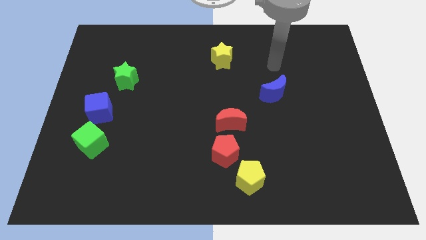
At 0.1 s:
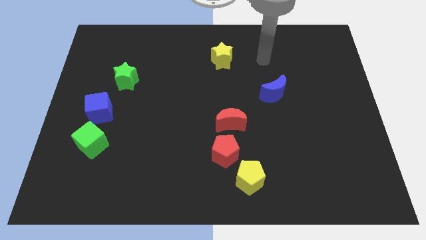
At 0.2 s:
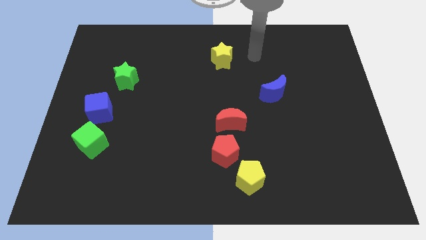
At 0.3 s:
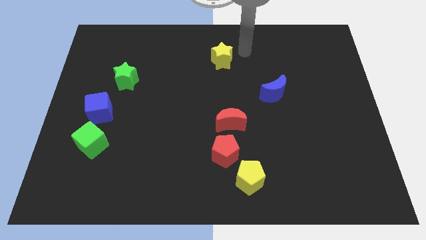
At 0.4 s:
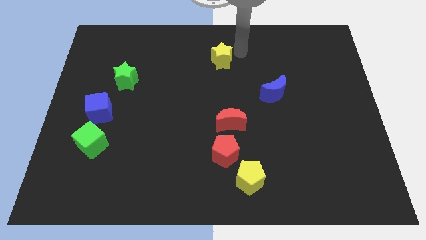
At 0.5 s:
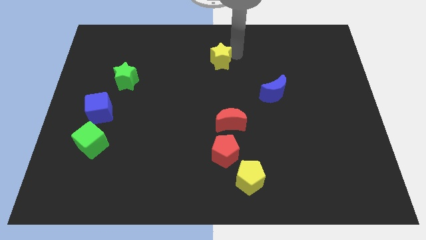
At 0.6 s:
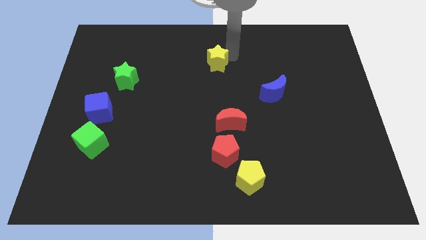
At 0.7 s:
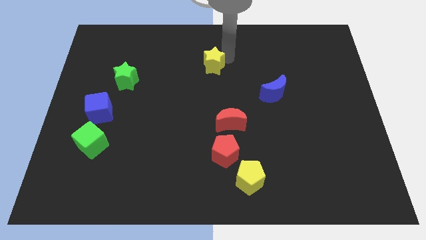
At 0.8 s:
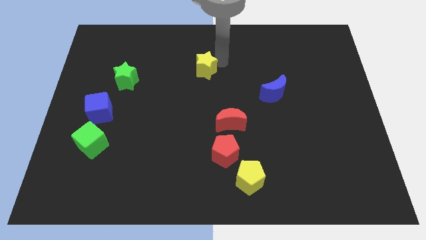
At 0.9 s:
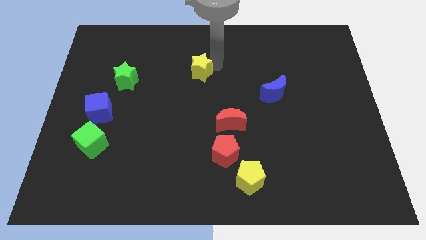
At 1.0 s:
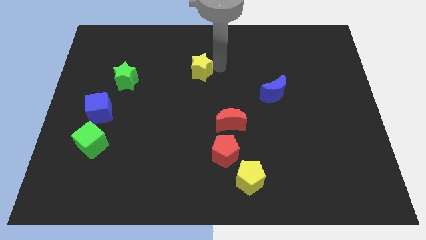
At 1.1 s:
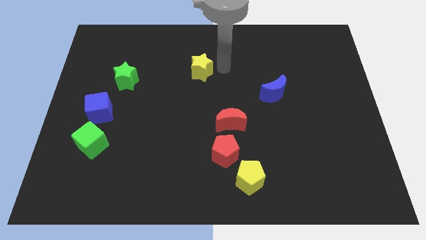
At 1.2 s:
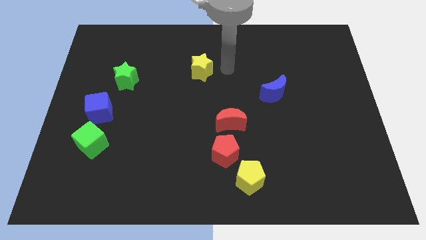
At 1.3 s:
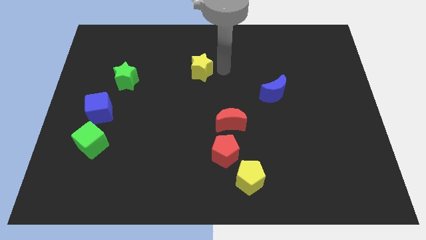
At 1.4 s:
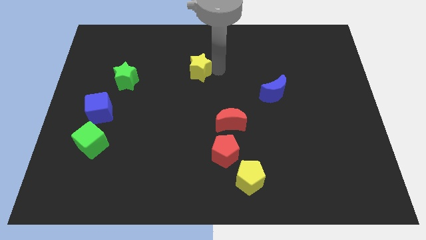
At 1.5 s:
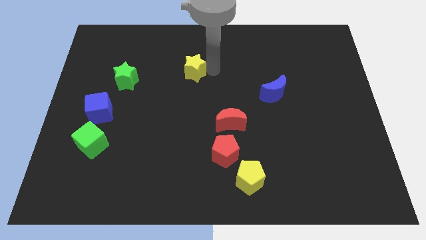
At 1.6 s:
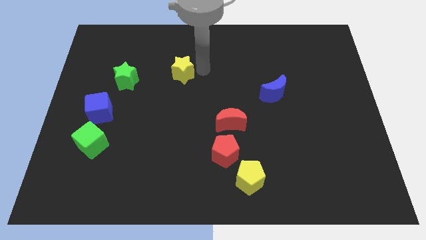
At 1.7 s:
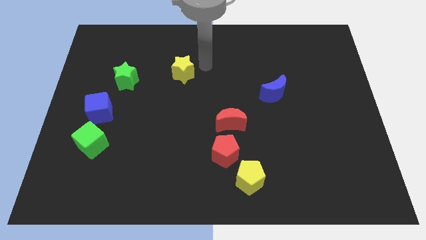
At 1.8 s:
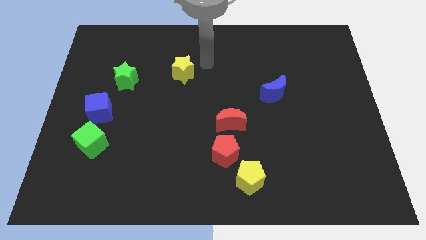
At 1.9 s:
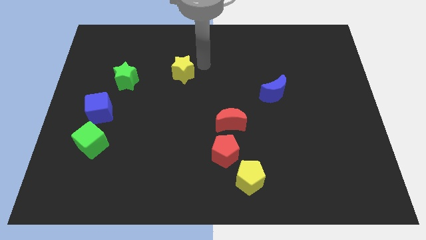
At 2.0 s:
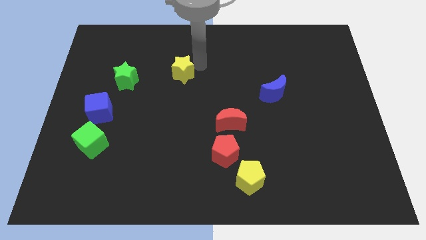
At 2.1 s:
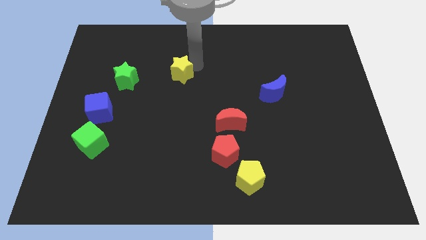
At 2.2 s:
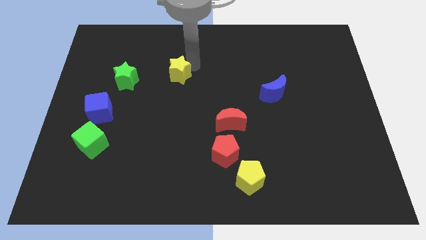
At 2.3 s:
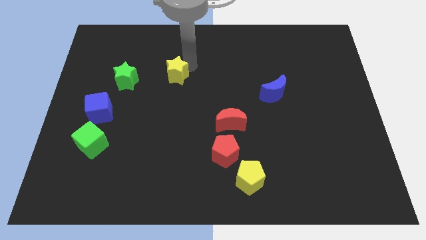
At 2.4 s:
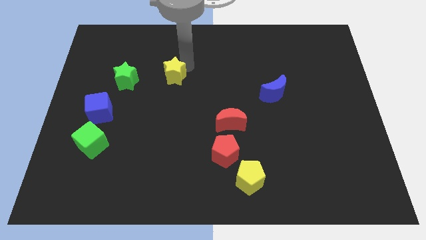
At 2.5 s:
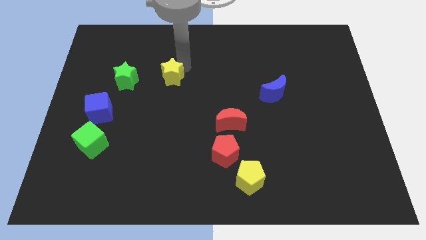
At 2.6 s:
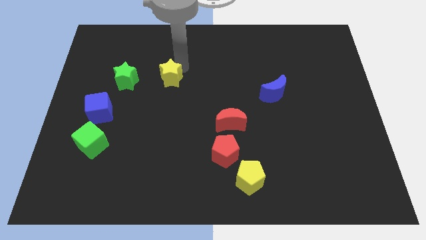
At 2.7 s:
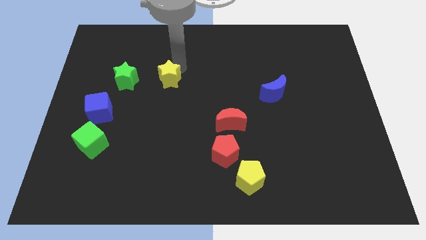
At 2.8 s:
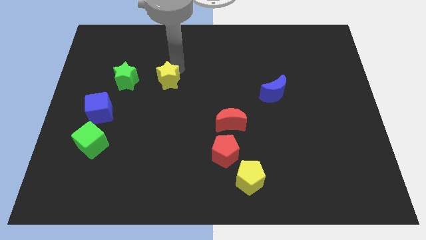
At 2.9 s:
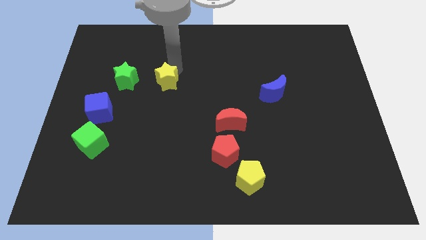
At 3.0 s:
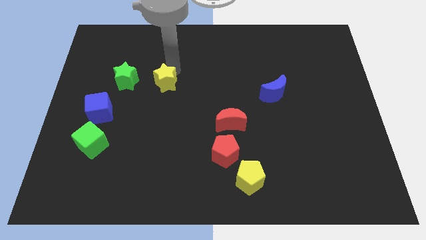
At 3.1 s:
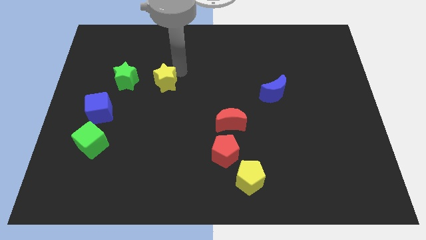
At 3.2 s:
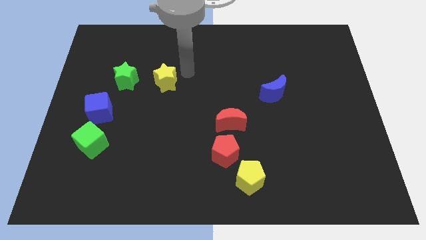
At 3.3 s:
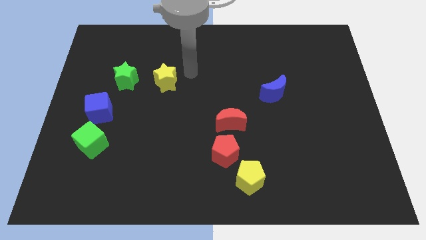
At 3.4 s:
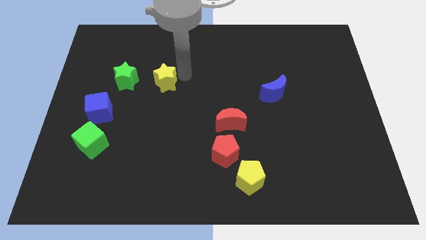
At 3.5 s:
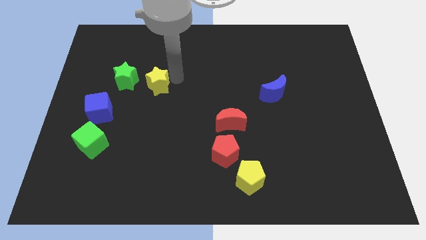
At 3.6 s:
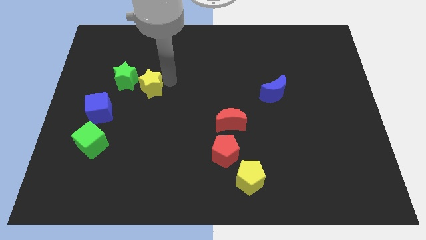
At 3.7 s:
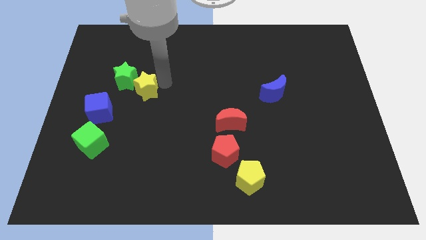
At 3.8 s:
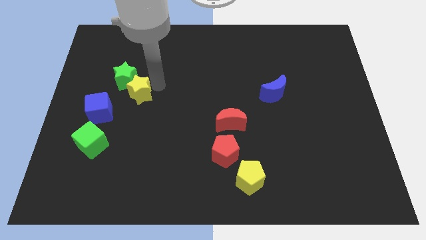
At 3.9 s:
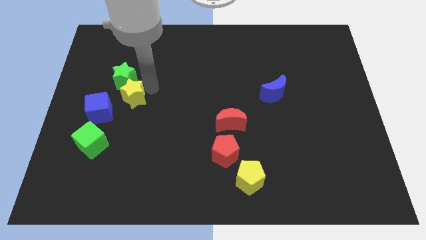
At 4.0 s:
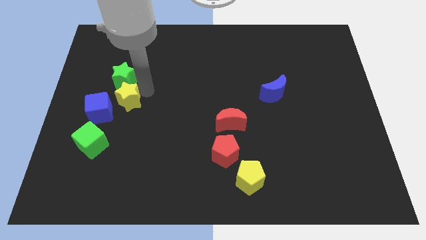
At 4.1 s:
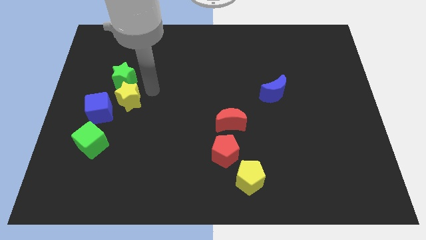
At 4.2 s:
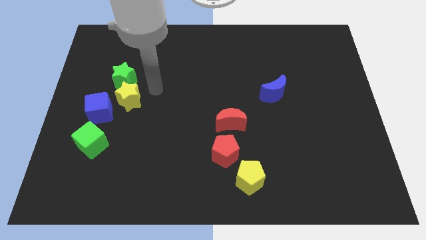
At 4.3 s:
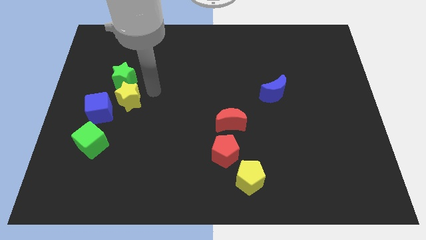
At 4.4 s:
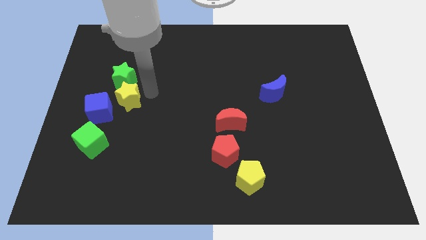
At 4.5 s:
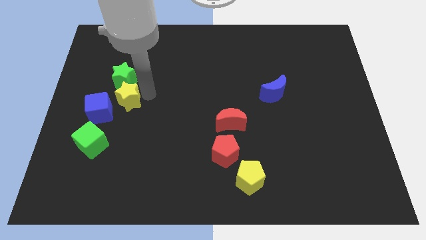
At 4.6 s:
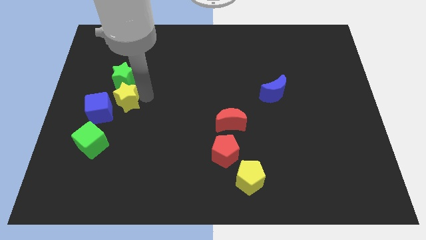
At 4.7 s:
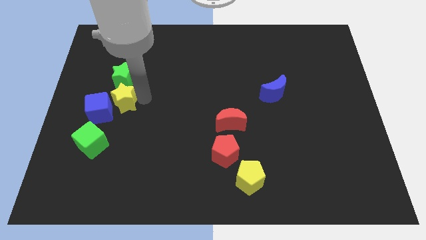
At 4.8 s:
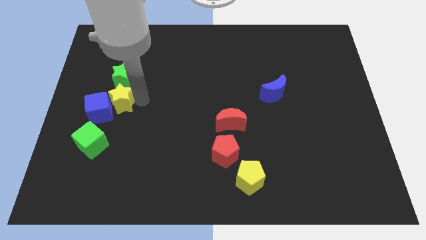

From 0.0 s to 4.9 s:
slide the yellow star to the blue cube

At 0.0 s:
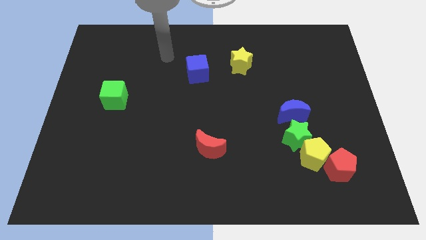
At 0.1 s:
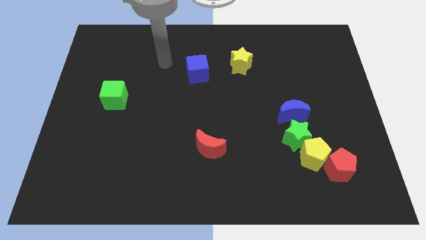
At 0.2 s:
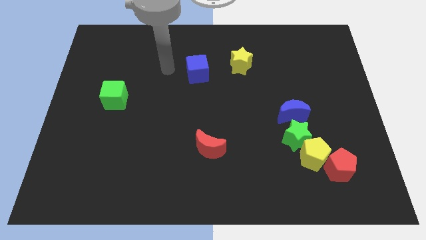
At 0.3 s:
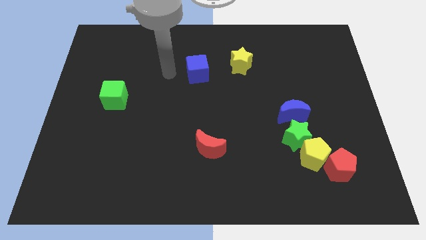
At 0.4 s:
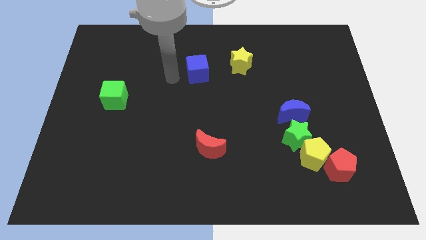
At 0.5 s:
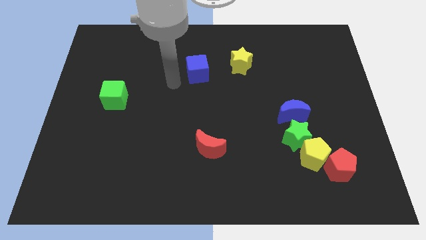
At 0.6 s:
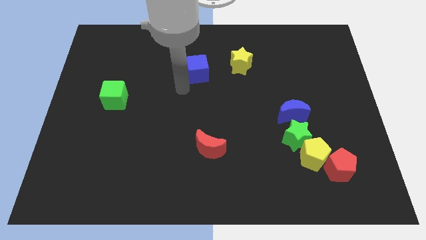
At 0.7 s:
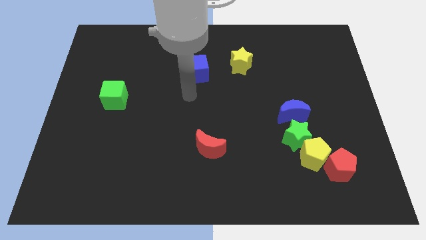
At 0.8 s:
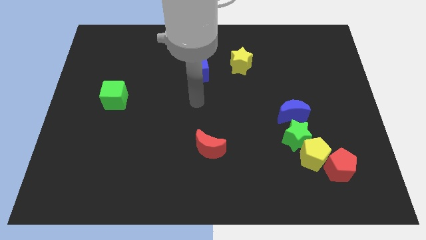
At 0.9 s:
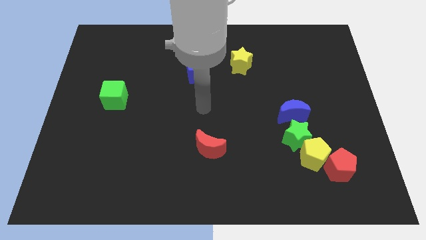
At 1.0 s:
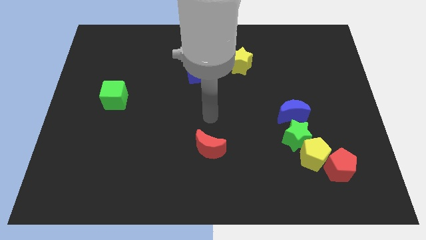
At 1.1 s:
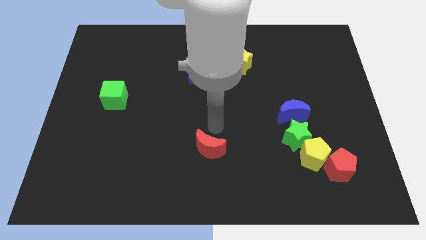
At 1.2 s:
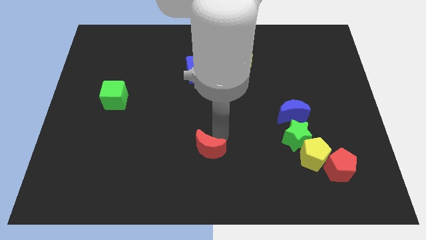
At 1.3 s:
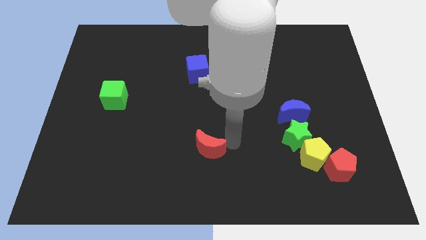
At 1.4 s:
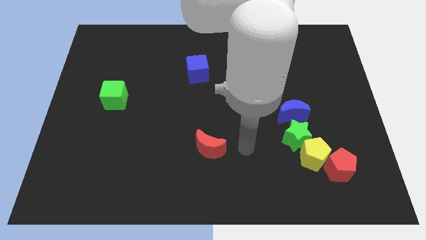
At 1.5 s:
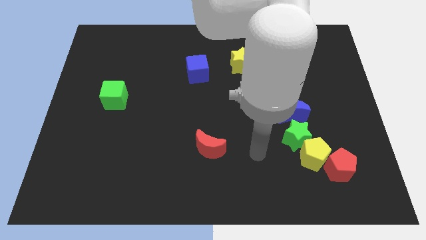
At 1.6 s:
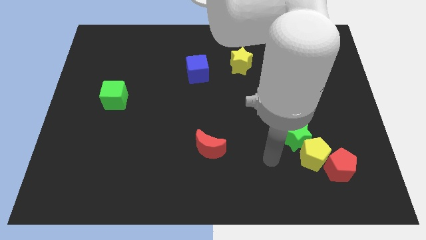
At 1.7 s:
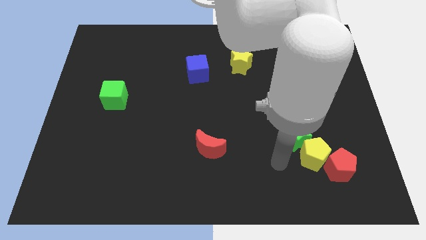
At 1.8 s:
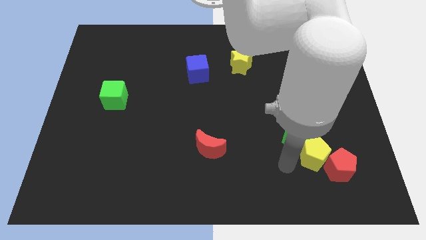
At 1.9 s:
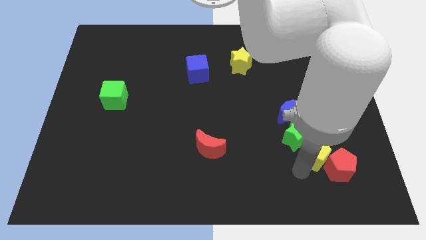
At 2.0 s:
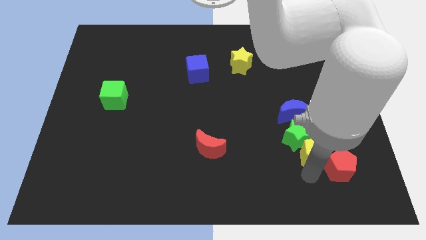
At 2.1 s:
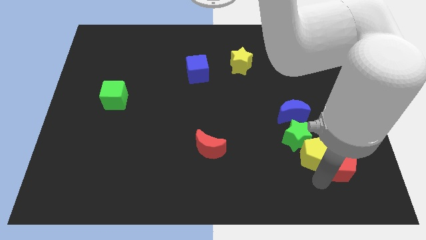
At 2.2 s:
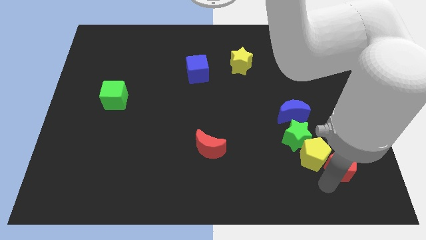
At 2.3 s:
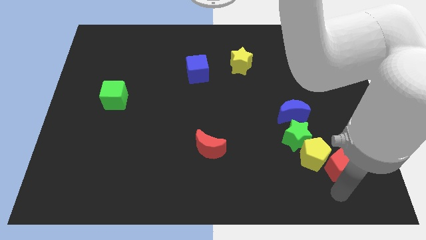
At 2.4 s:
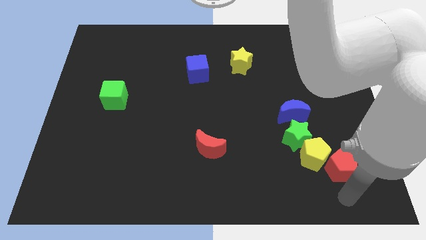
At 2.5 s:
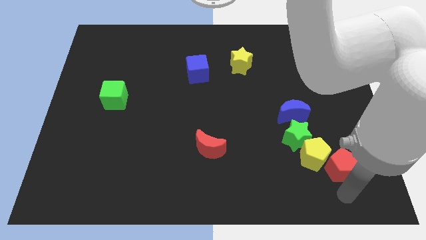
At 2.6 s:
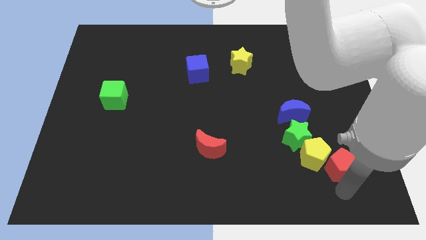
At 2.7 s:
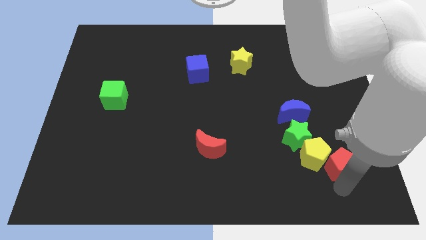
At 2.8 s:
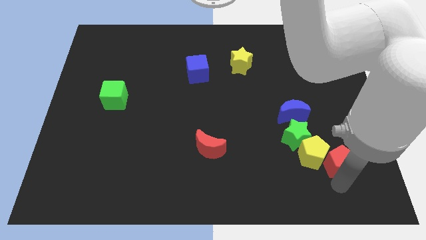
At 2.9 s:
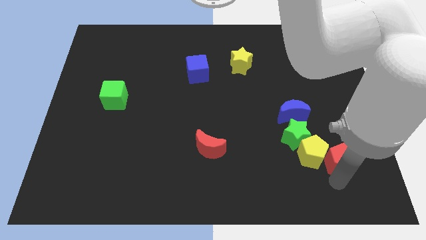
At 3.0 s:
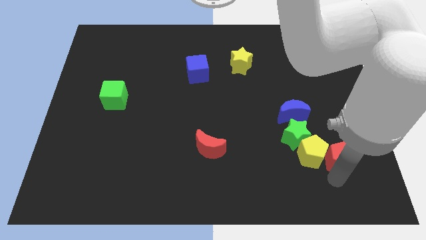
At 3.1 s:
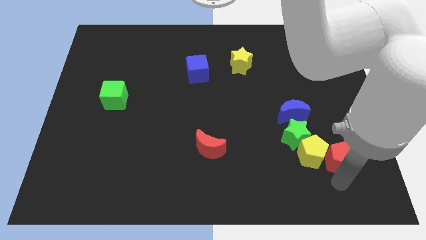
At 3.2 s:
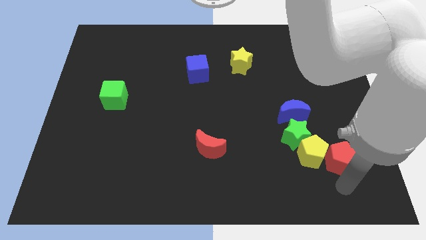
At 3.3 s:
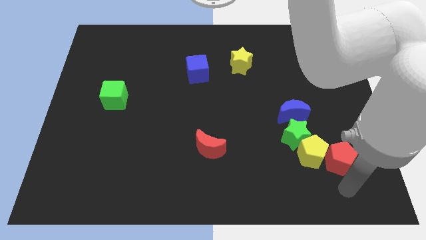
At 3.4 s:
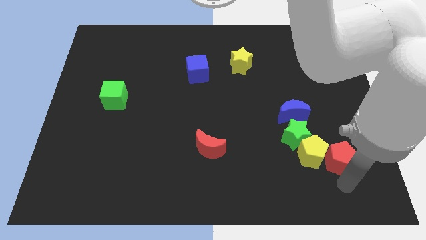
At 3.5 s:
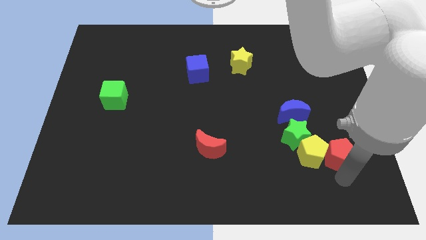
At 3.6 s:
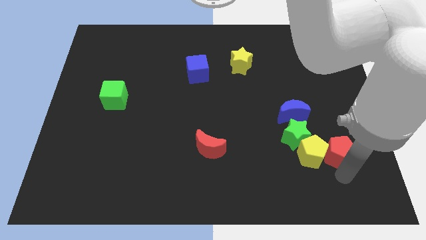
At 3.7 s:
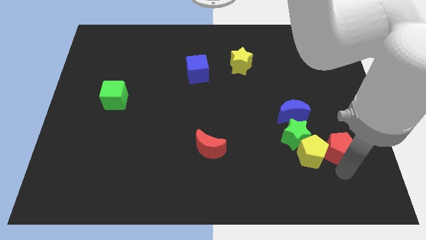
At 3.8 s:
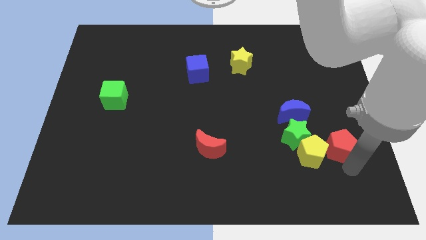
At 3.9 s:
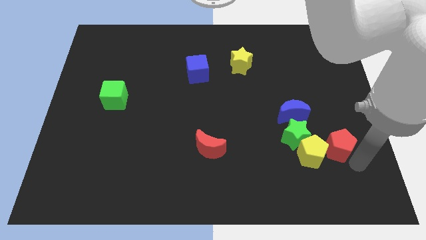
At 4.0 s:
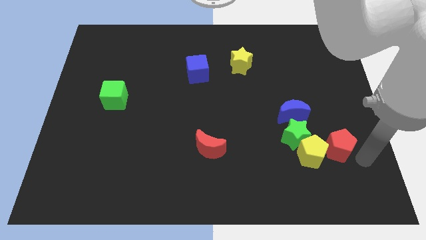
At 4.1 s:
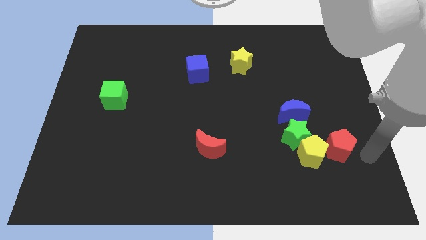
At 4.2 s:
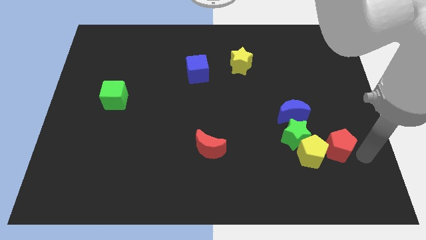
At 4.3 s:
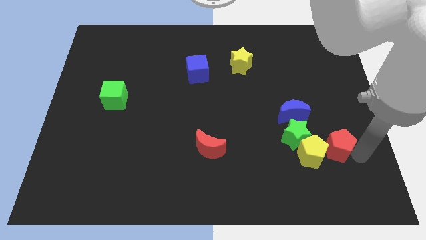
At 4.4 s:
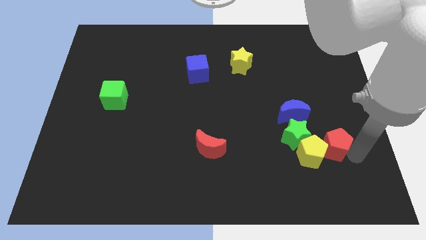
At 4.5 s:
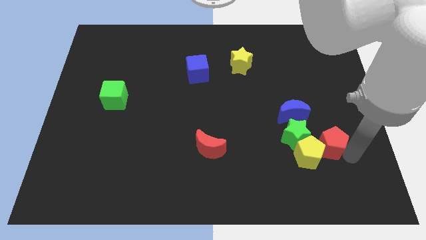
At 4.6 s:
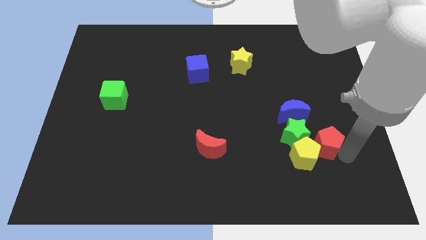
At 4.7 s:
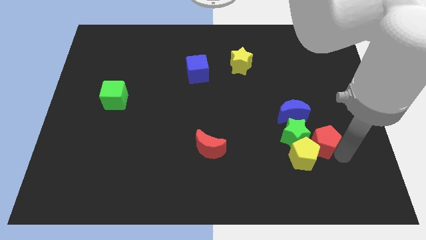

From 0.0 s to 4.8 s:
put the red pentagon close to the green star
